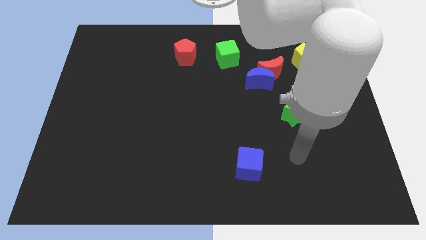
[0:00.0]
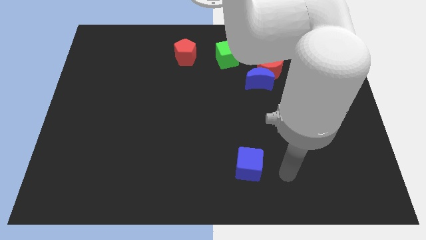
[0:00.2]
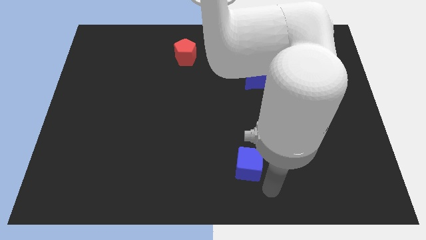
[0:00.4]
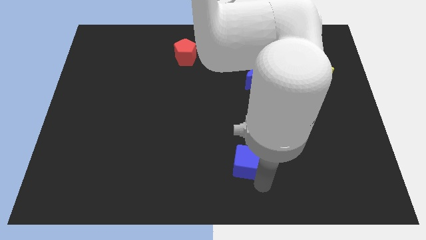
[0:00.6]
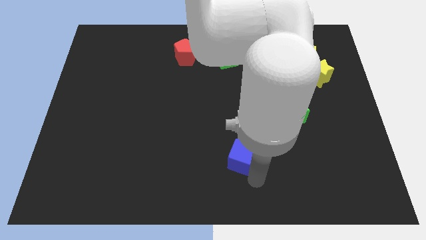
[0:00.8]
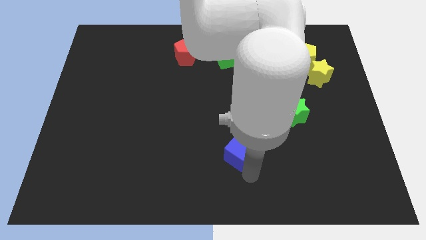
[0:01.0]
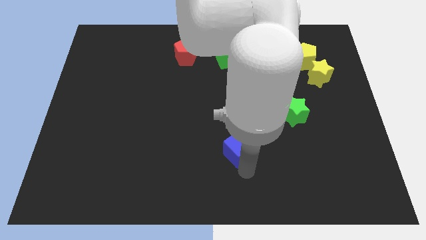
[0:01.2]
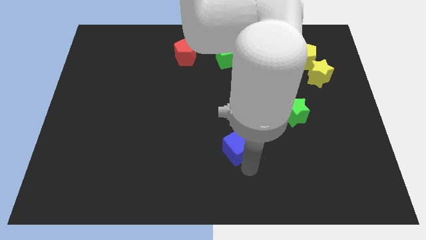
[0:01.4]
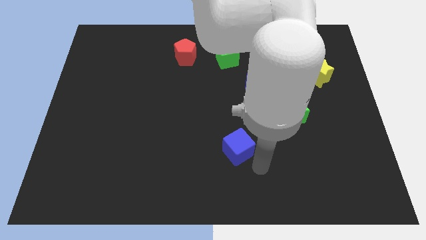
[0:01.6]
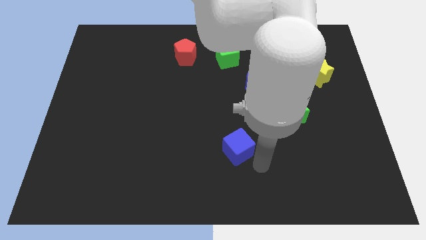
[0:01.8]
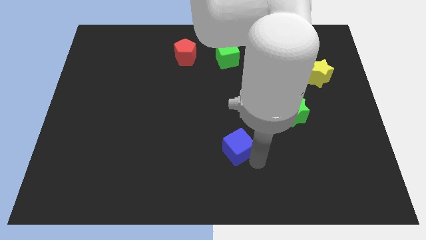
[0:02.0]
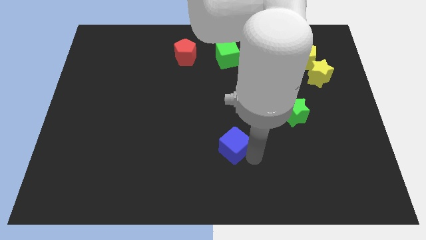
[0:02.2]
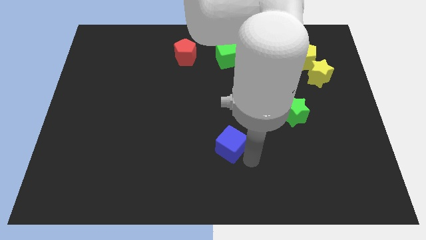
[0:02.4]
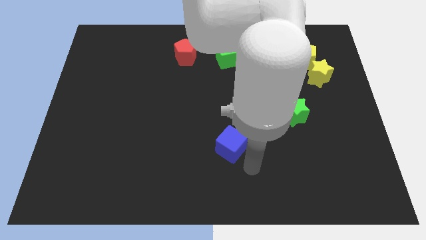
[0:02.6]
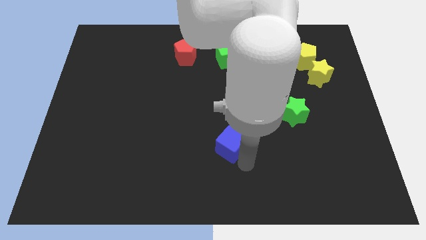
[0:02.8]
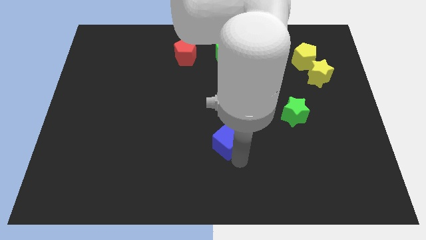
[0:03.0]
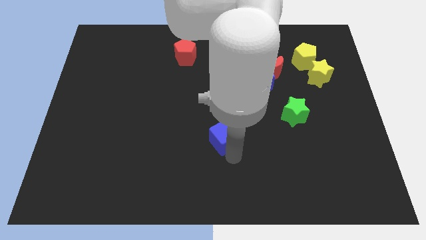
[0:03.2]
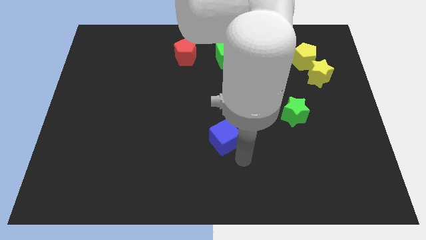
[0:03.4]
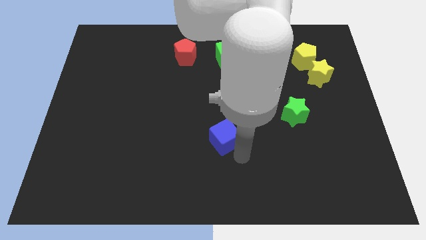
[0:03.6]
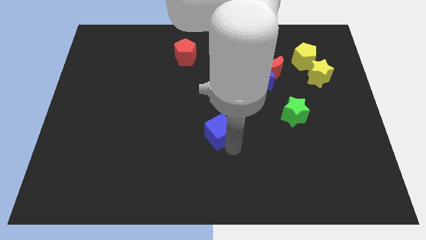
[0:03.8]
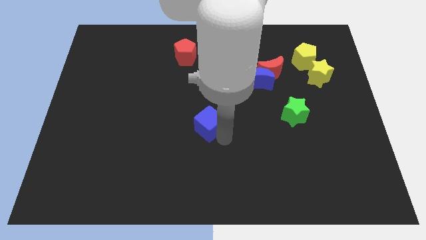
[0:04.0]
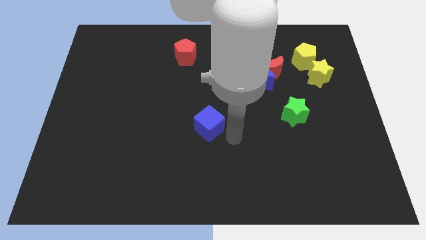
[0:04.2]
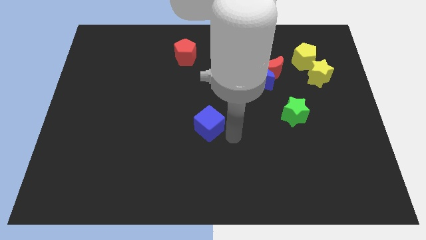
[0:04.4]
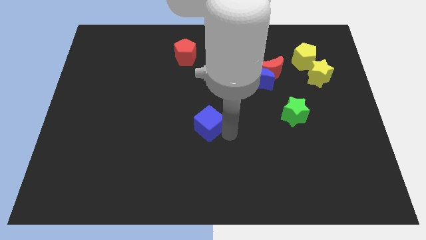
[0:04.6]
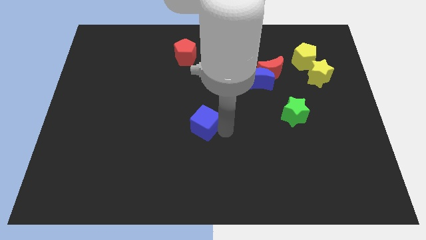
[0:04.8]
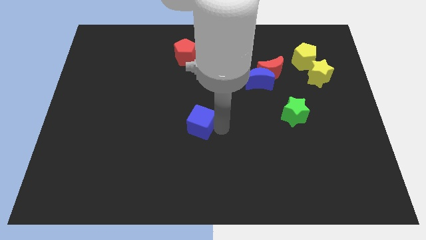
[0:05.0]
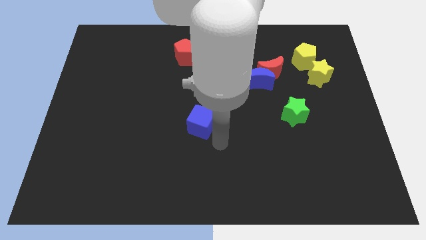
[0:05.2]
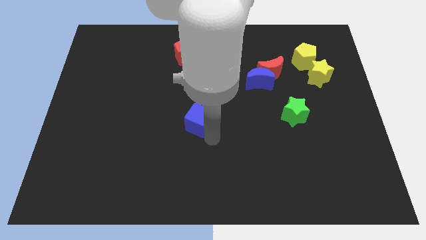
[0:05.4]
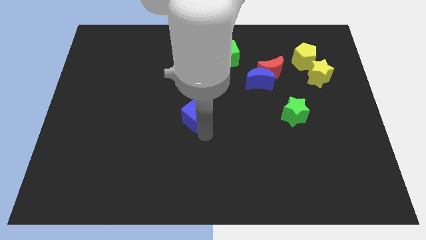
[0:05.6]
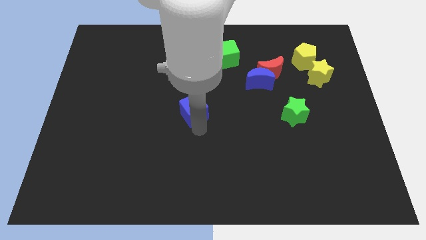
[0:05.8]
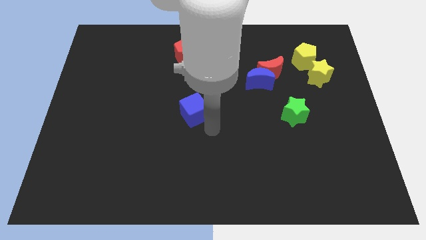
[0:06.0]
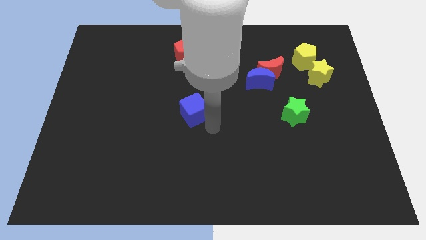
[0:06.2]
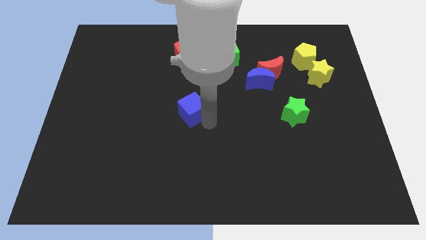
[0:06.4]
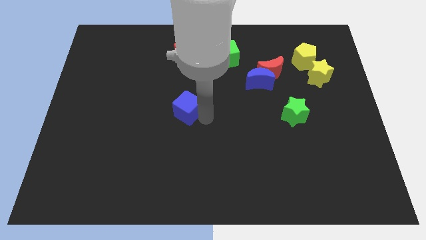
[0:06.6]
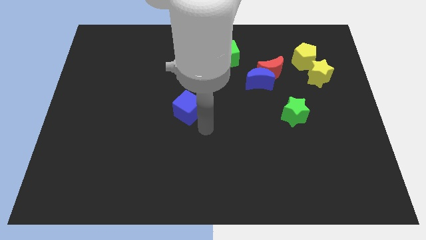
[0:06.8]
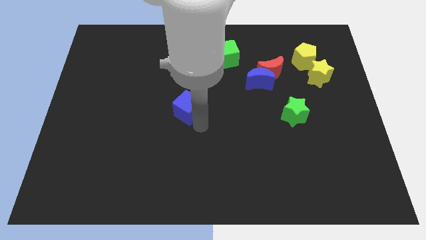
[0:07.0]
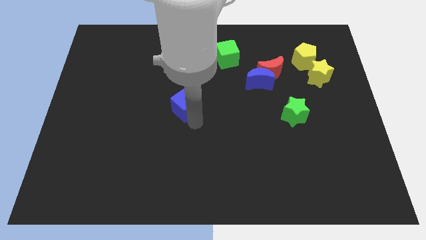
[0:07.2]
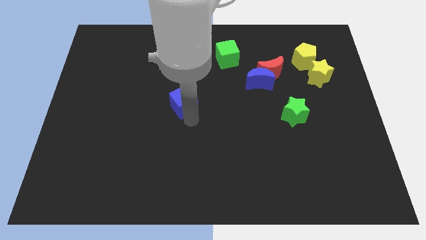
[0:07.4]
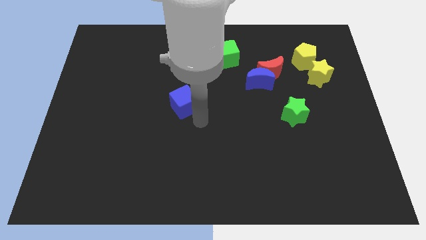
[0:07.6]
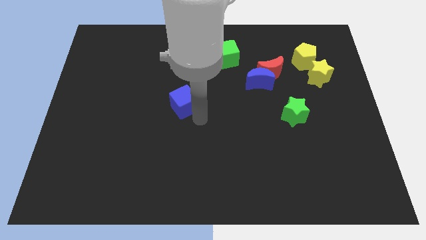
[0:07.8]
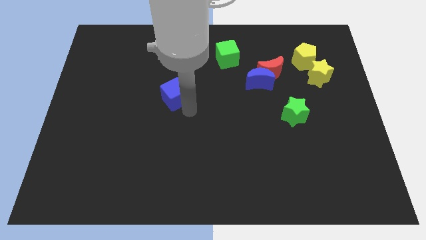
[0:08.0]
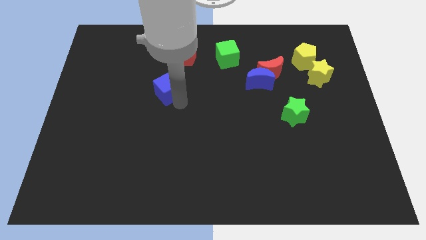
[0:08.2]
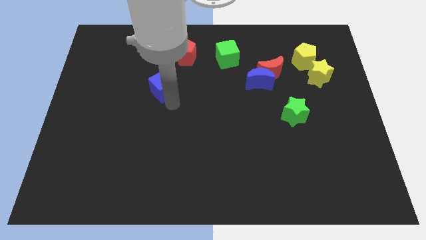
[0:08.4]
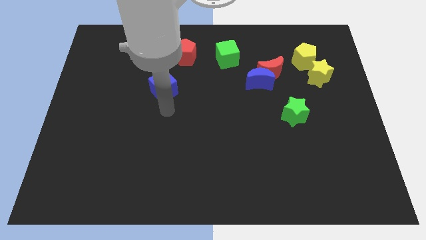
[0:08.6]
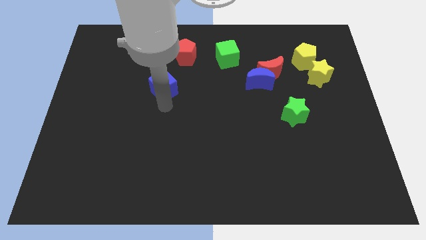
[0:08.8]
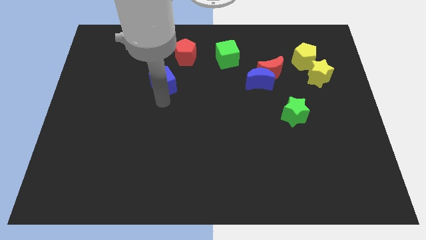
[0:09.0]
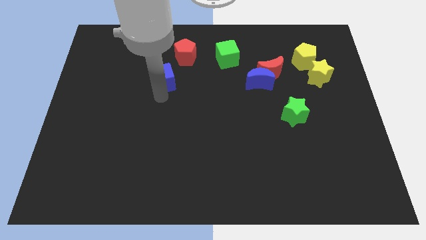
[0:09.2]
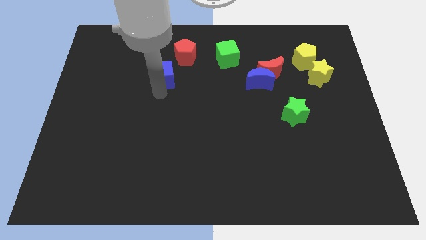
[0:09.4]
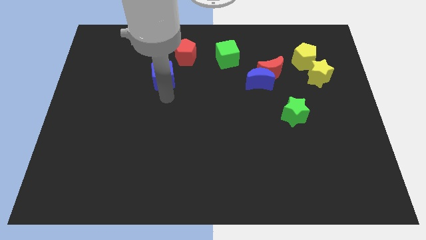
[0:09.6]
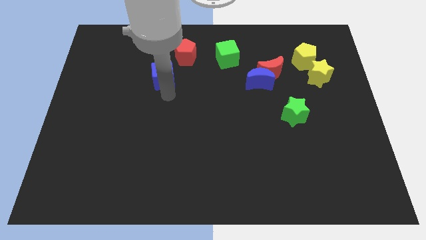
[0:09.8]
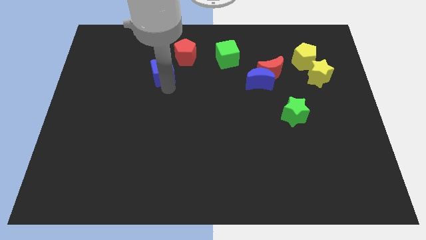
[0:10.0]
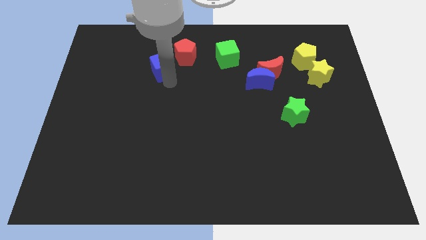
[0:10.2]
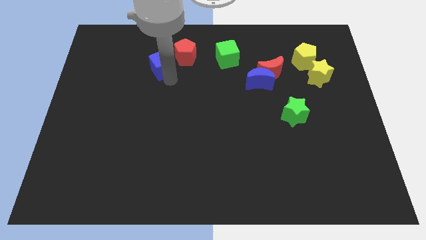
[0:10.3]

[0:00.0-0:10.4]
move the blue cube left of the red pentagon

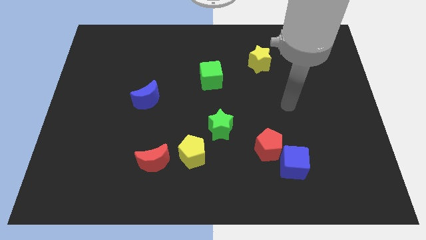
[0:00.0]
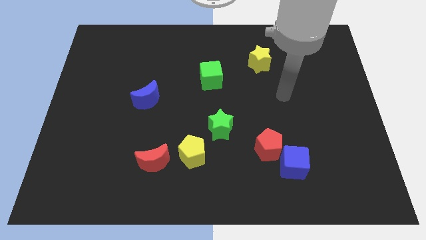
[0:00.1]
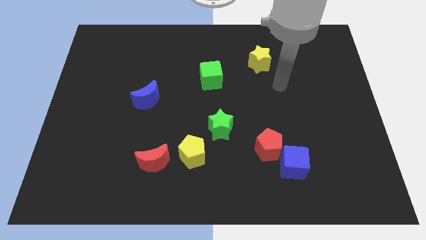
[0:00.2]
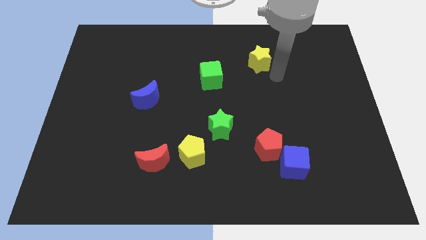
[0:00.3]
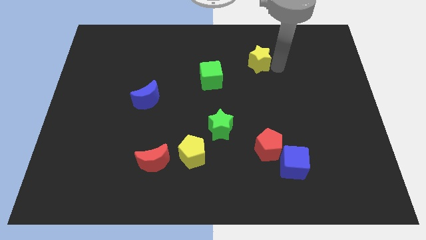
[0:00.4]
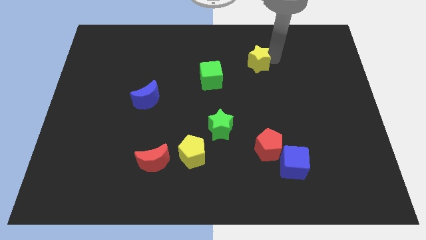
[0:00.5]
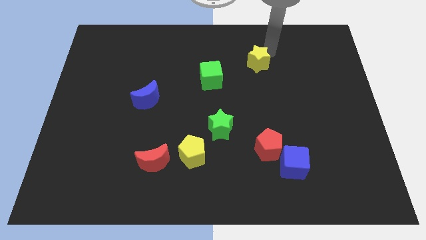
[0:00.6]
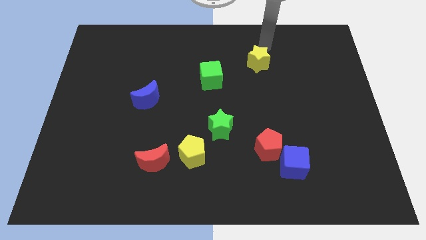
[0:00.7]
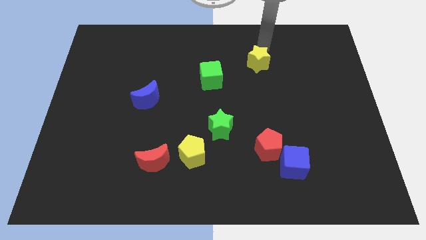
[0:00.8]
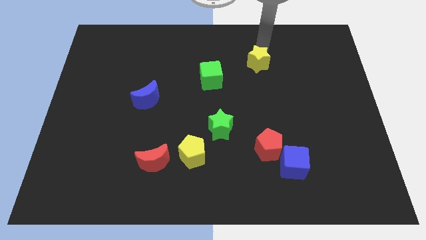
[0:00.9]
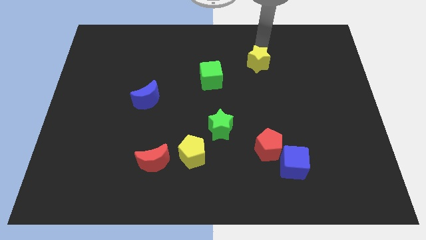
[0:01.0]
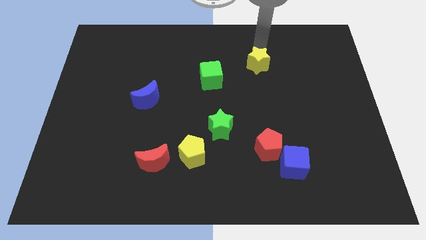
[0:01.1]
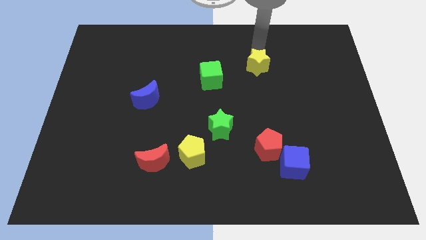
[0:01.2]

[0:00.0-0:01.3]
put the yellow star to the right side of the green cube
